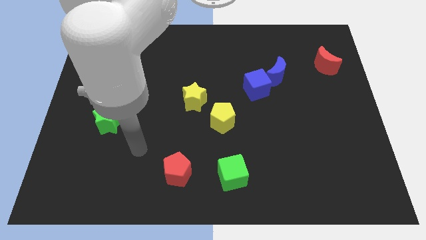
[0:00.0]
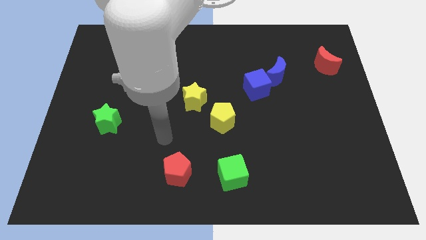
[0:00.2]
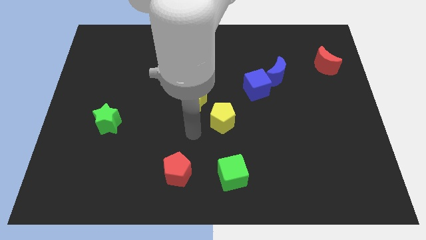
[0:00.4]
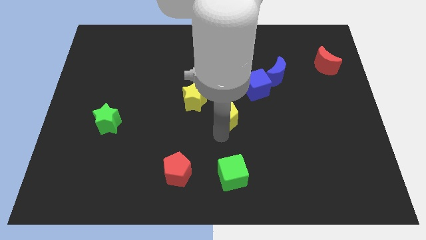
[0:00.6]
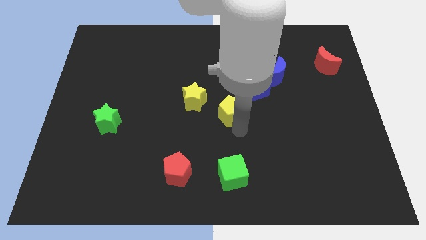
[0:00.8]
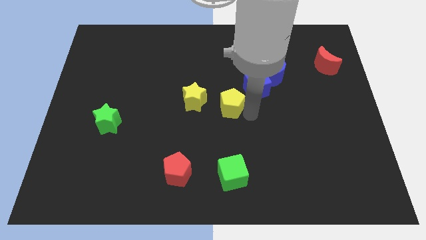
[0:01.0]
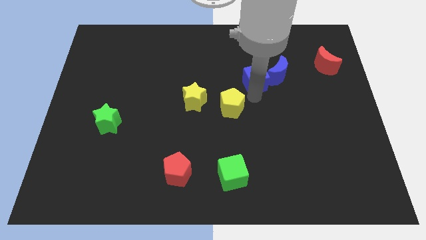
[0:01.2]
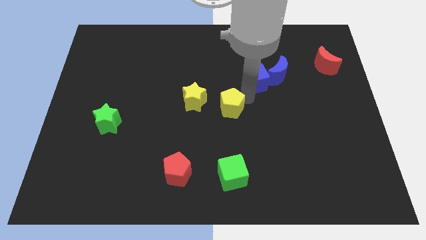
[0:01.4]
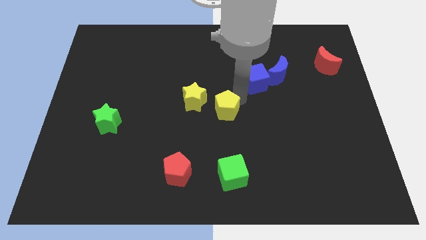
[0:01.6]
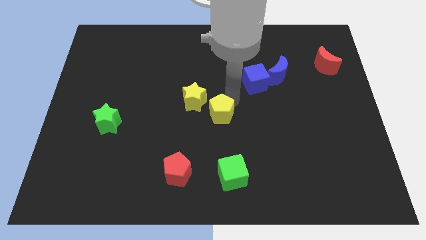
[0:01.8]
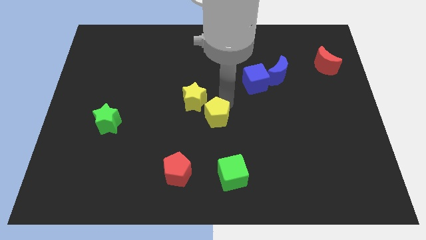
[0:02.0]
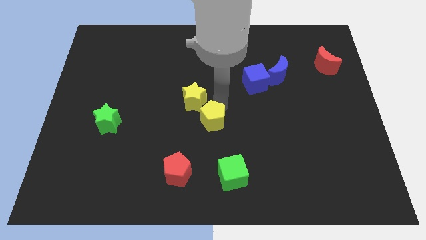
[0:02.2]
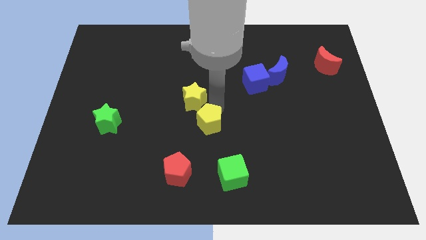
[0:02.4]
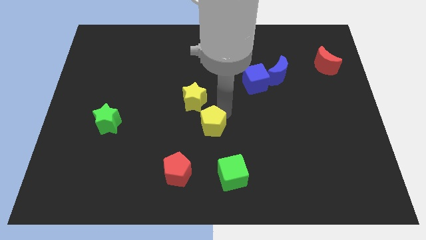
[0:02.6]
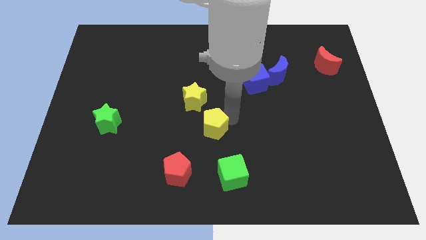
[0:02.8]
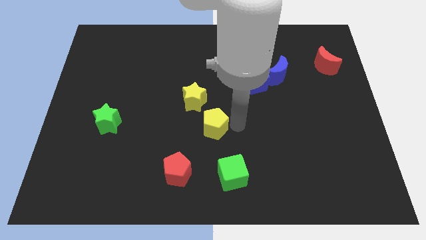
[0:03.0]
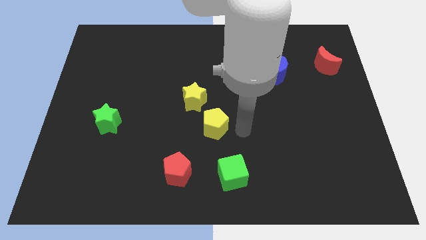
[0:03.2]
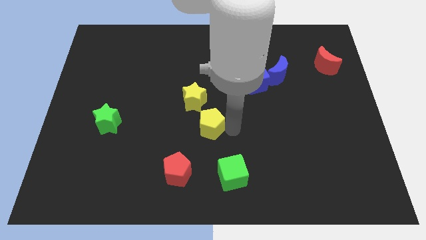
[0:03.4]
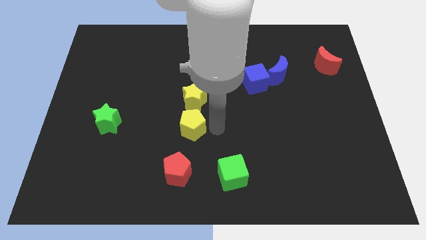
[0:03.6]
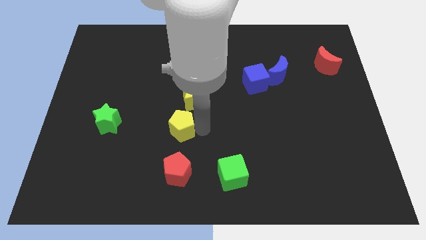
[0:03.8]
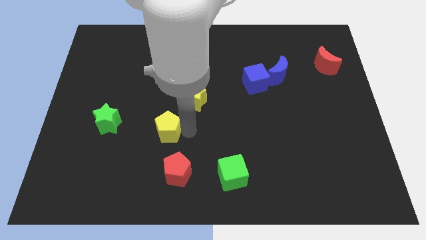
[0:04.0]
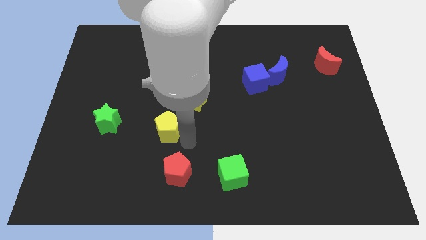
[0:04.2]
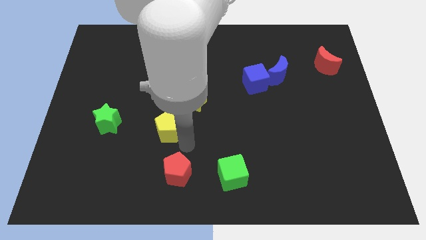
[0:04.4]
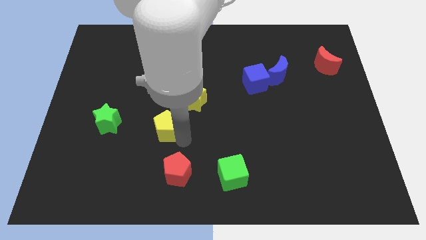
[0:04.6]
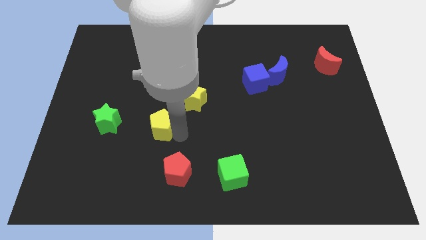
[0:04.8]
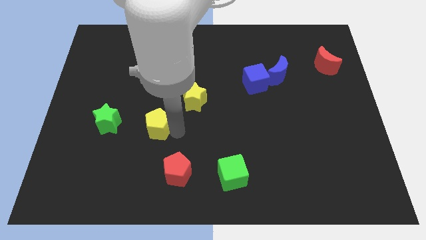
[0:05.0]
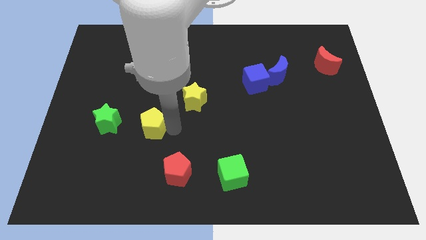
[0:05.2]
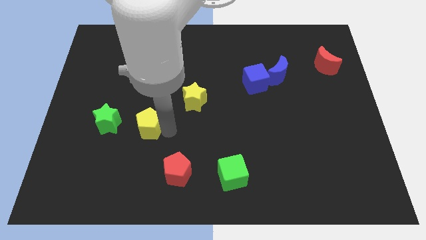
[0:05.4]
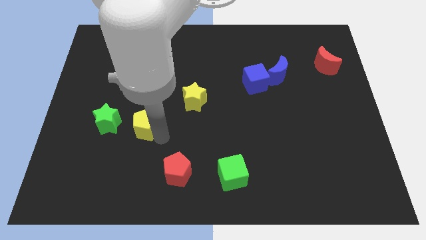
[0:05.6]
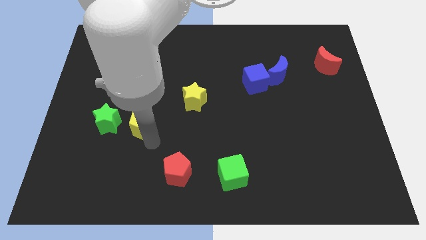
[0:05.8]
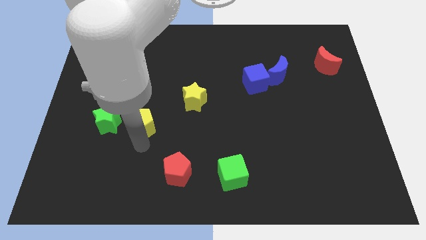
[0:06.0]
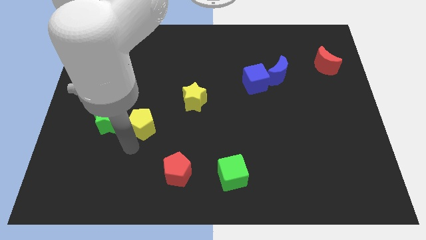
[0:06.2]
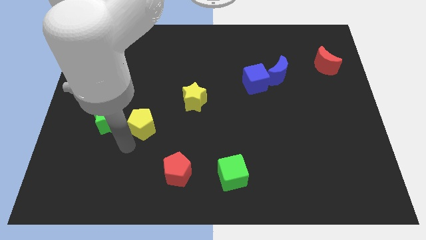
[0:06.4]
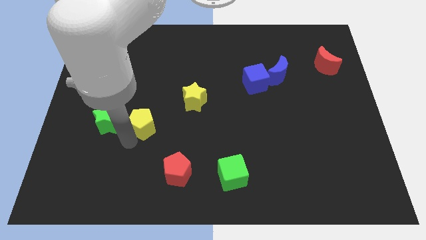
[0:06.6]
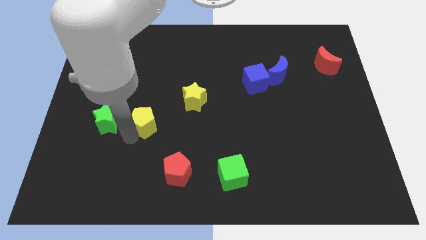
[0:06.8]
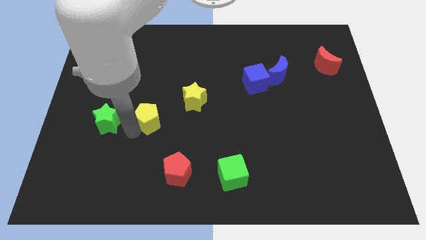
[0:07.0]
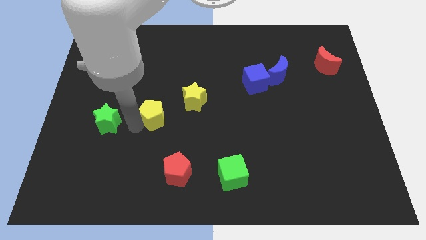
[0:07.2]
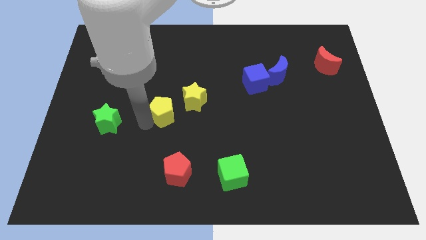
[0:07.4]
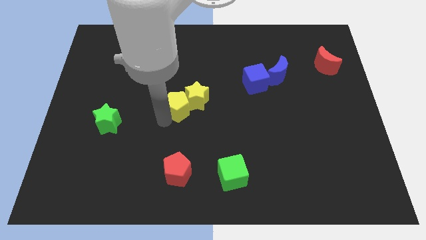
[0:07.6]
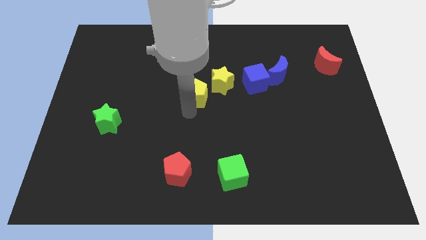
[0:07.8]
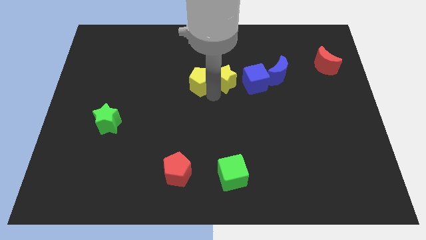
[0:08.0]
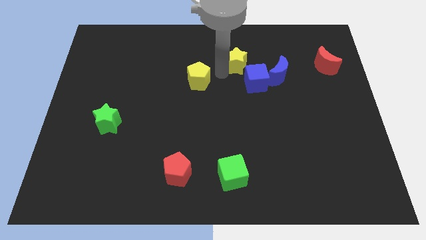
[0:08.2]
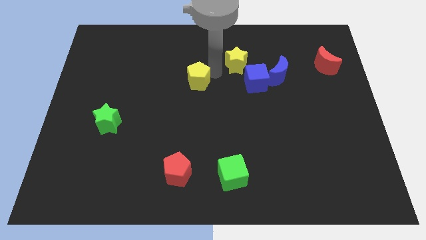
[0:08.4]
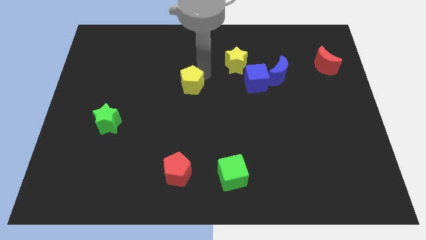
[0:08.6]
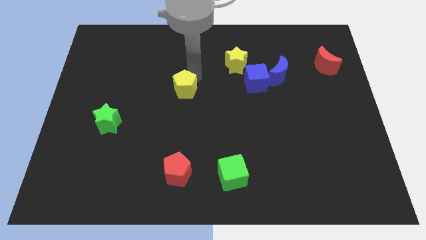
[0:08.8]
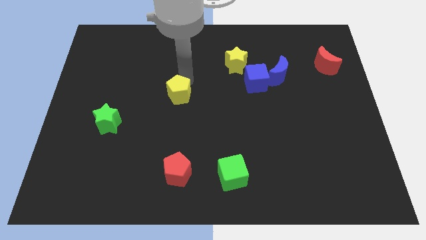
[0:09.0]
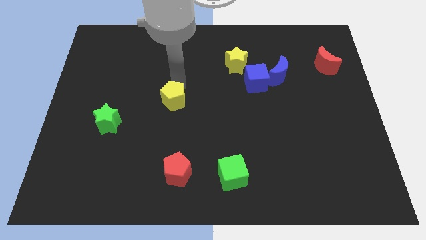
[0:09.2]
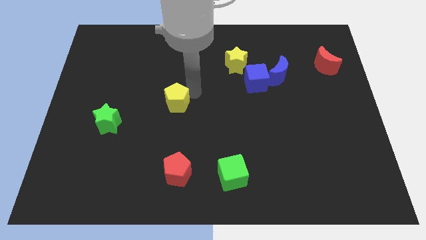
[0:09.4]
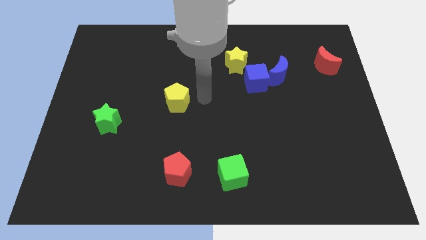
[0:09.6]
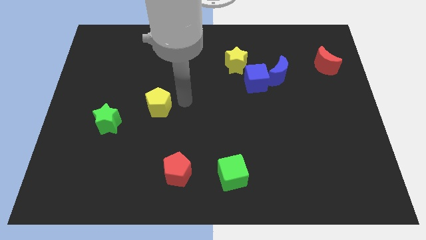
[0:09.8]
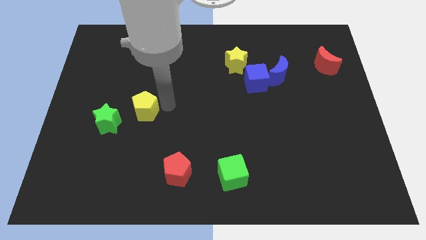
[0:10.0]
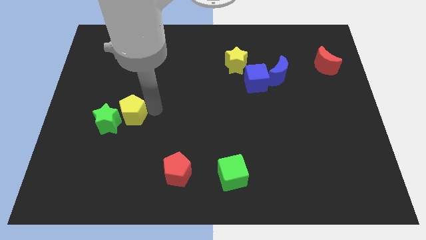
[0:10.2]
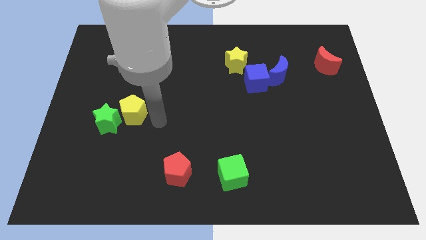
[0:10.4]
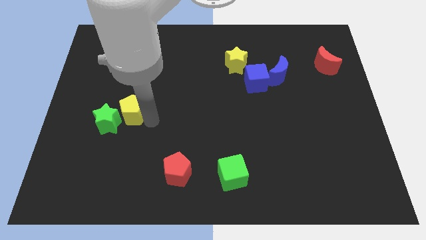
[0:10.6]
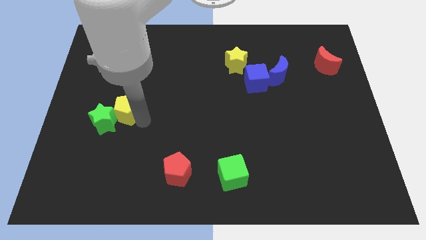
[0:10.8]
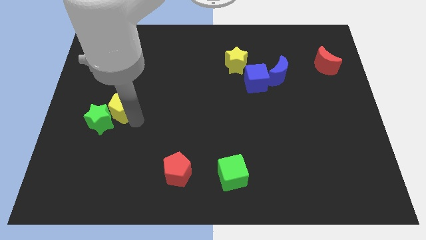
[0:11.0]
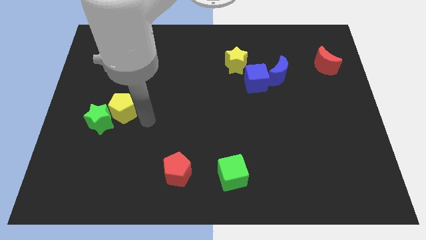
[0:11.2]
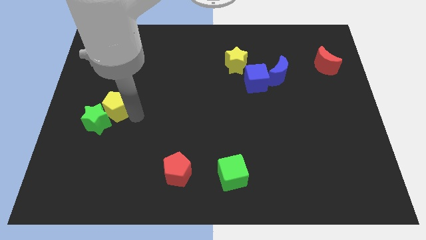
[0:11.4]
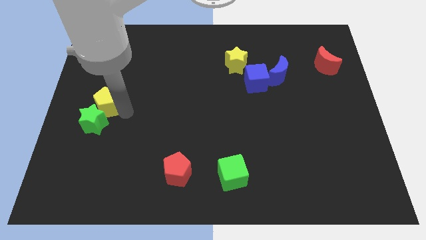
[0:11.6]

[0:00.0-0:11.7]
slide the yellow pentagon to the center left
